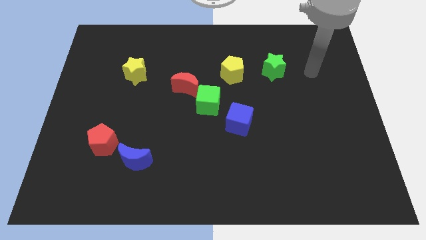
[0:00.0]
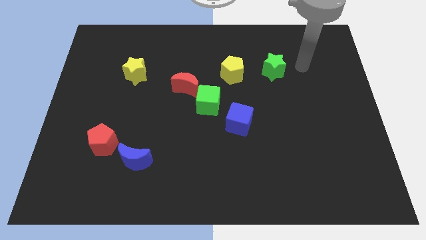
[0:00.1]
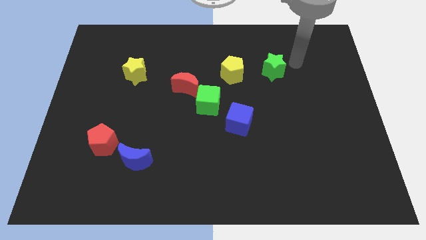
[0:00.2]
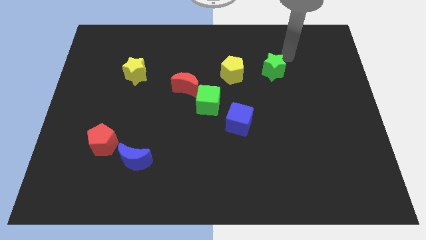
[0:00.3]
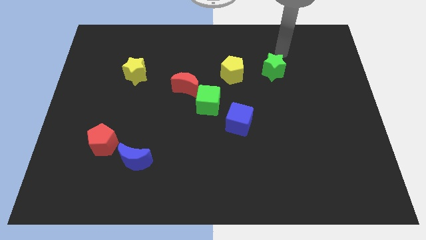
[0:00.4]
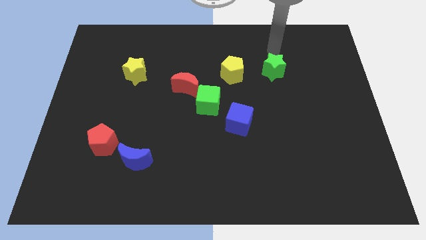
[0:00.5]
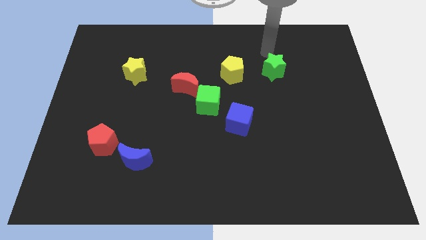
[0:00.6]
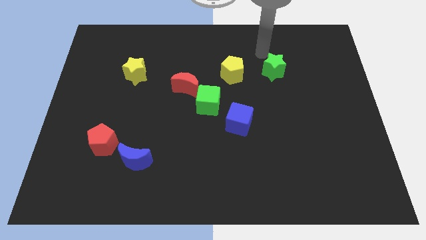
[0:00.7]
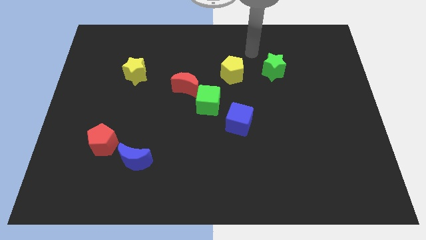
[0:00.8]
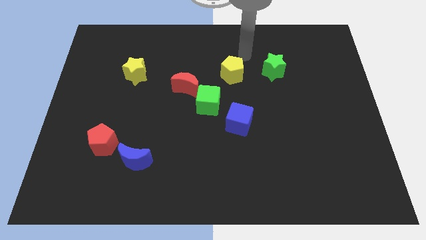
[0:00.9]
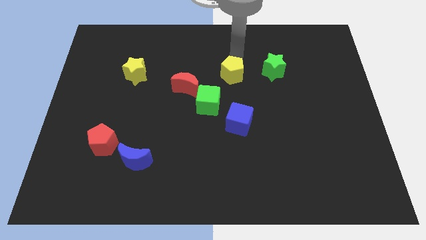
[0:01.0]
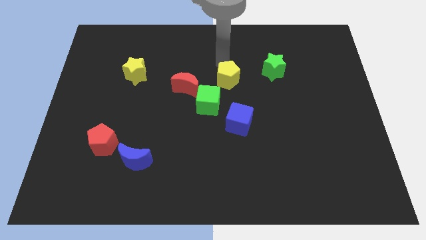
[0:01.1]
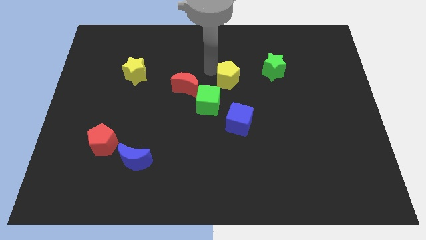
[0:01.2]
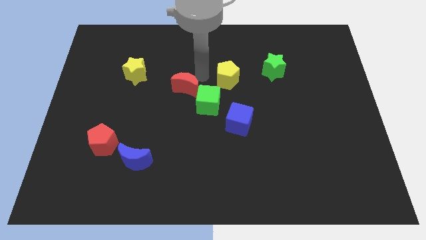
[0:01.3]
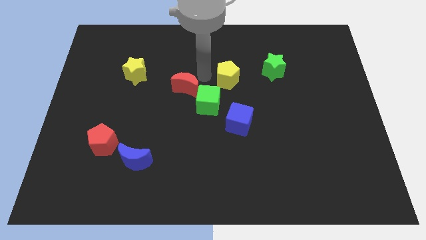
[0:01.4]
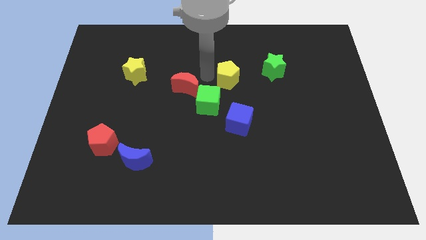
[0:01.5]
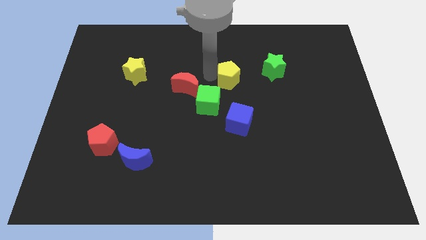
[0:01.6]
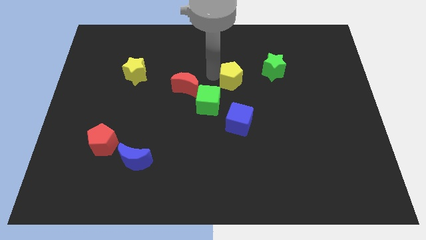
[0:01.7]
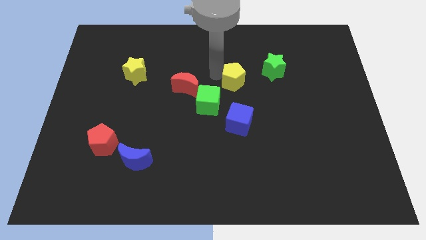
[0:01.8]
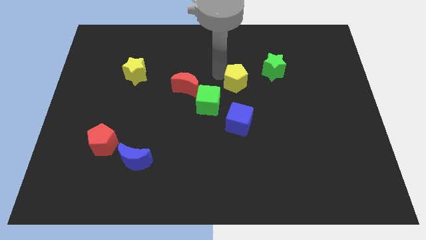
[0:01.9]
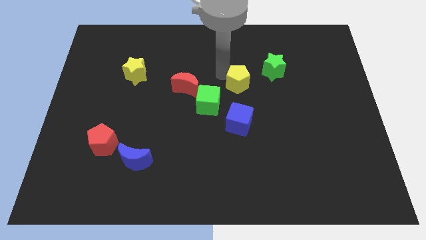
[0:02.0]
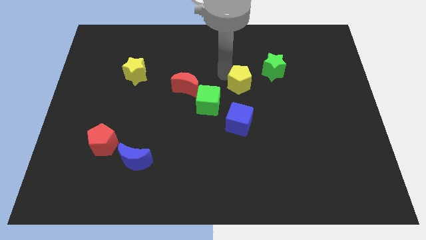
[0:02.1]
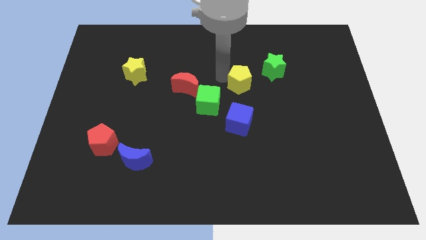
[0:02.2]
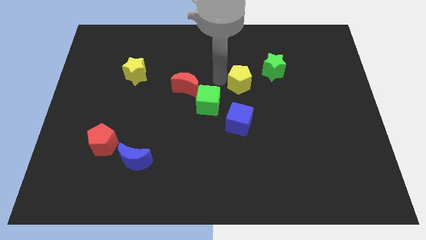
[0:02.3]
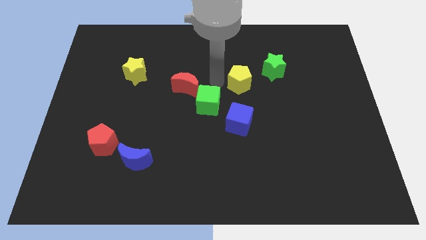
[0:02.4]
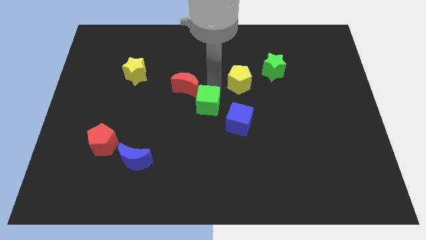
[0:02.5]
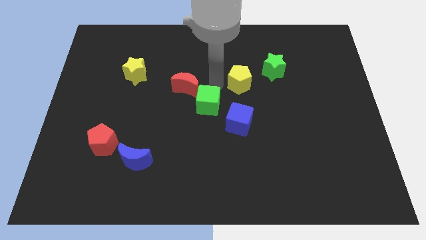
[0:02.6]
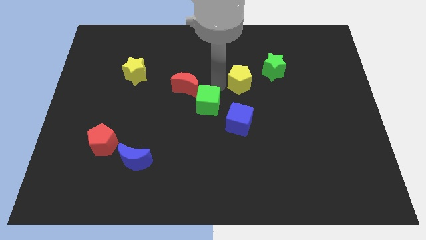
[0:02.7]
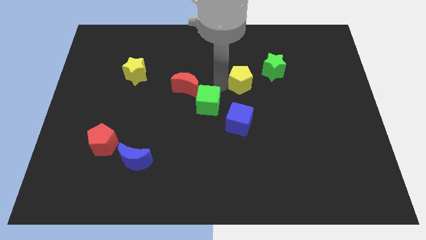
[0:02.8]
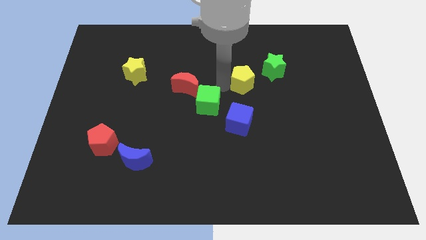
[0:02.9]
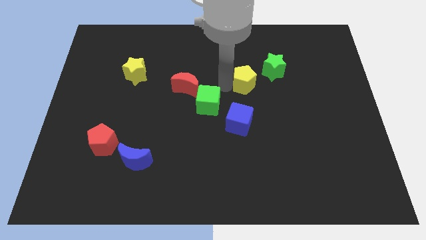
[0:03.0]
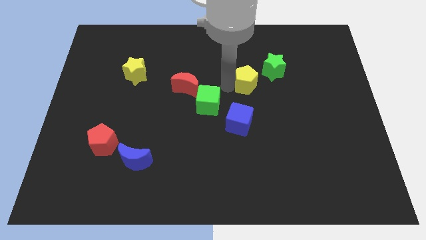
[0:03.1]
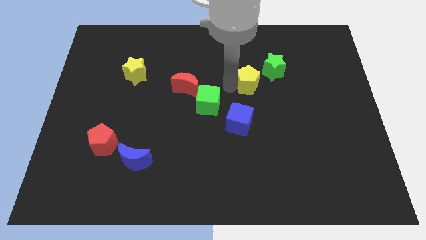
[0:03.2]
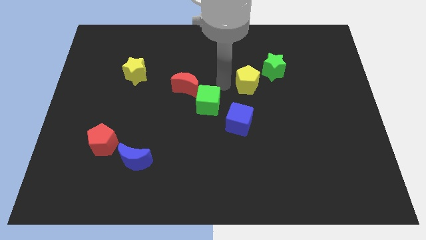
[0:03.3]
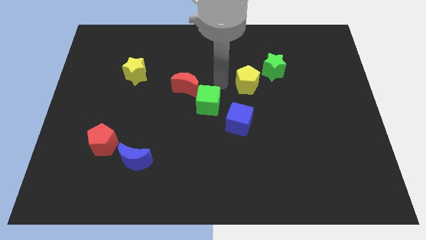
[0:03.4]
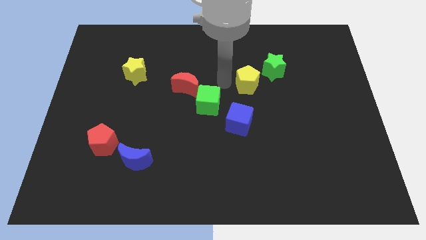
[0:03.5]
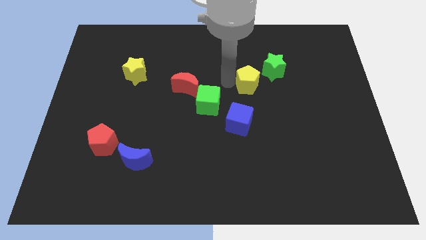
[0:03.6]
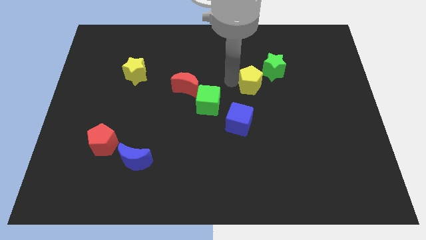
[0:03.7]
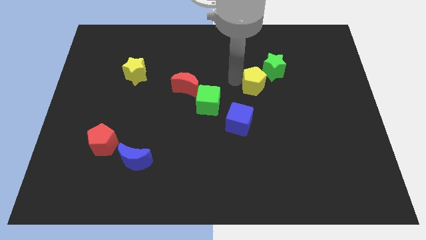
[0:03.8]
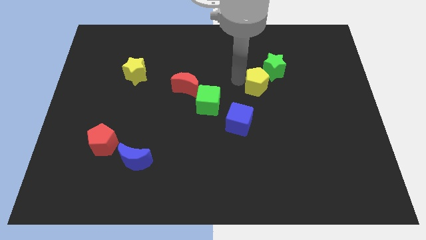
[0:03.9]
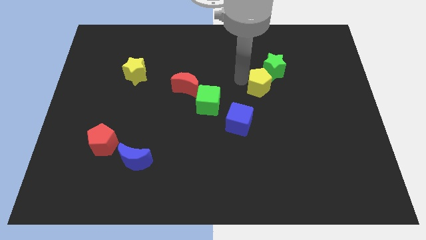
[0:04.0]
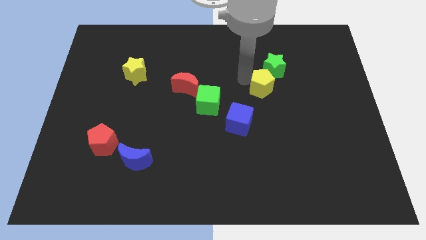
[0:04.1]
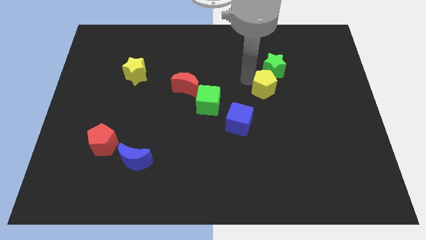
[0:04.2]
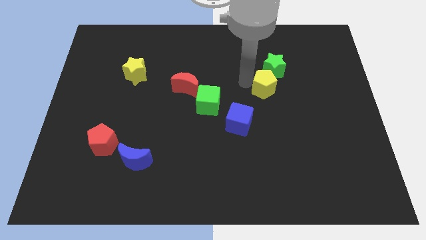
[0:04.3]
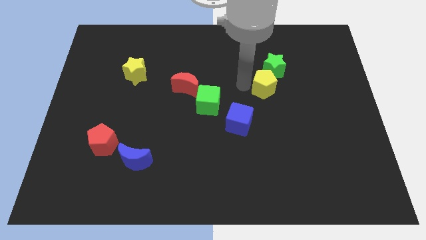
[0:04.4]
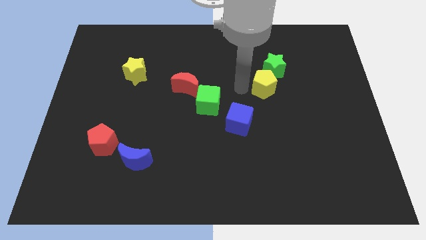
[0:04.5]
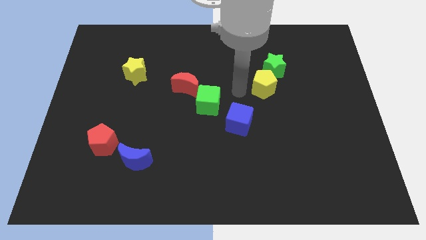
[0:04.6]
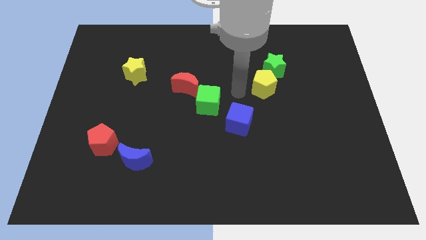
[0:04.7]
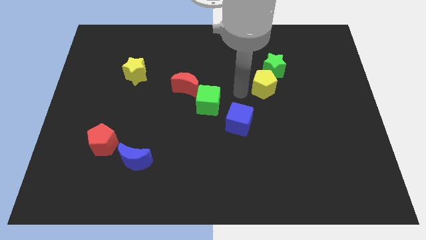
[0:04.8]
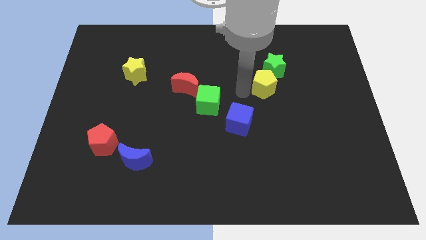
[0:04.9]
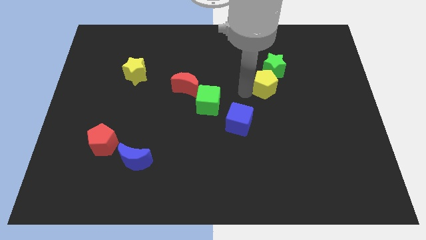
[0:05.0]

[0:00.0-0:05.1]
slightly move the yellow pentagon to the right

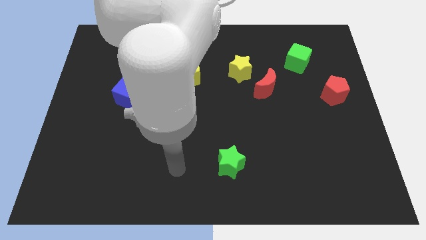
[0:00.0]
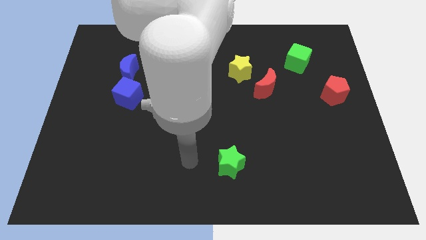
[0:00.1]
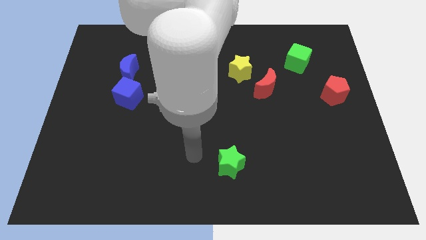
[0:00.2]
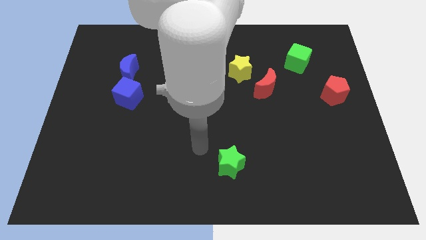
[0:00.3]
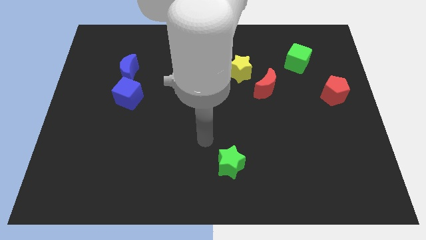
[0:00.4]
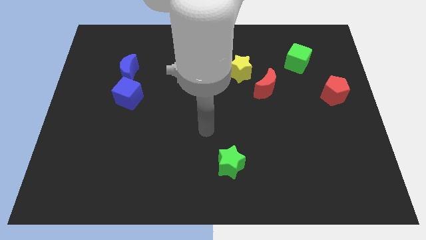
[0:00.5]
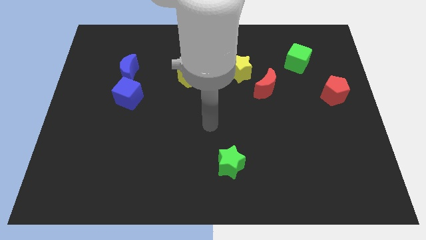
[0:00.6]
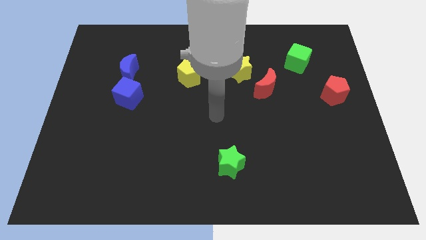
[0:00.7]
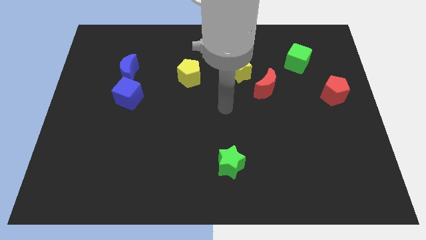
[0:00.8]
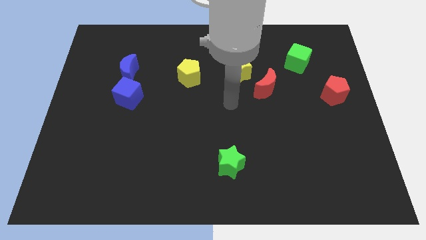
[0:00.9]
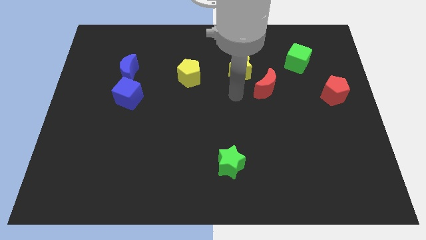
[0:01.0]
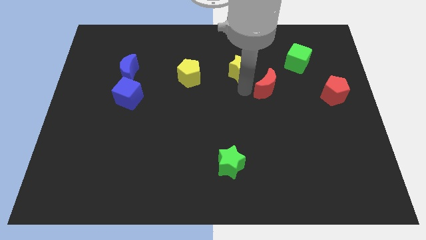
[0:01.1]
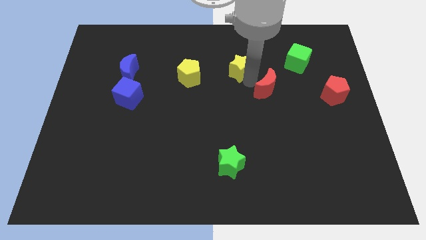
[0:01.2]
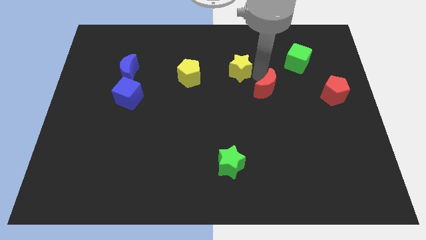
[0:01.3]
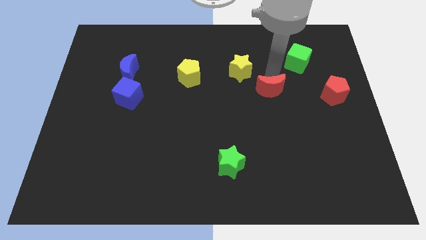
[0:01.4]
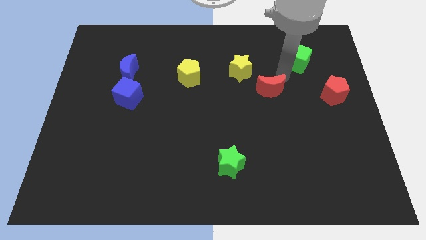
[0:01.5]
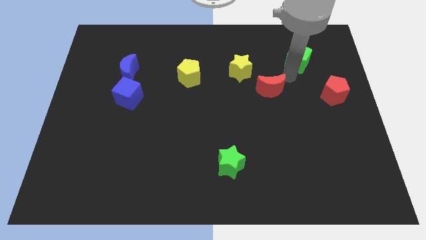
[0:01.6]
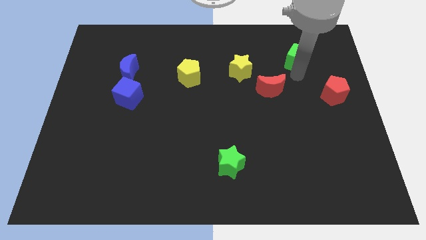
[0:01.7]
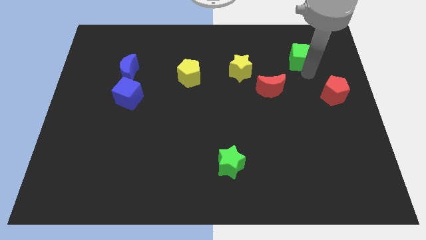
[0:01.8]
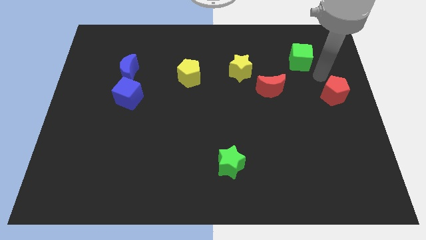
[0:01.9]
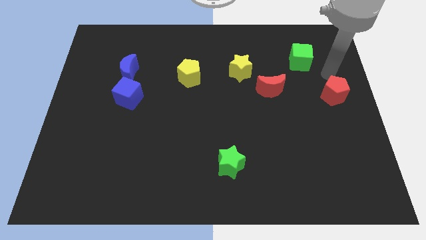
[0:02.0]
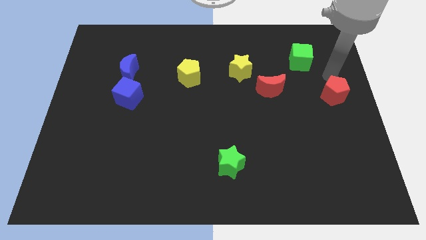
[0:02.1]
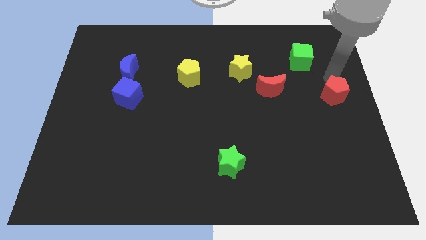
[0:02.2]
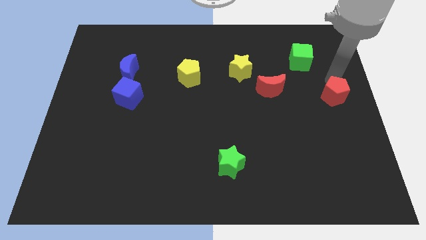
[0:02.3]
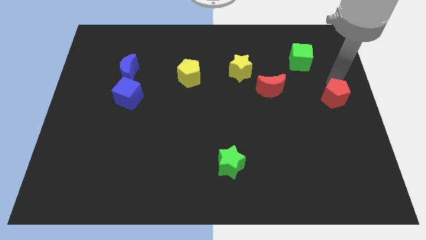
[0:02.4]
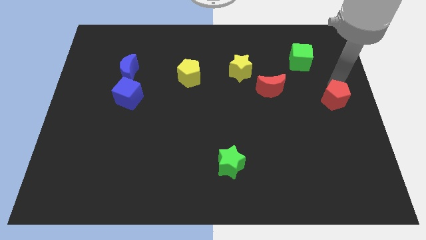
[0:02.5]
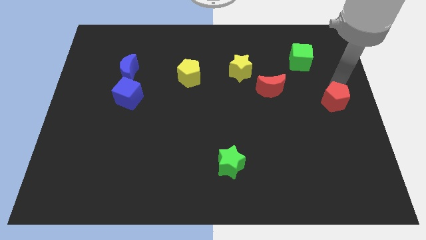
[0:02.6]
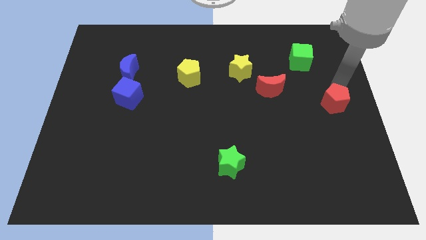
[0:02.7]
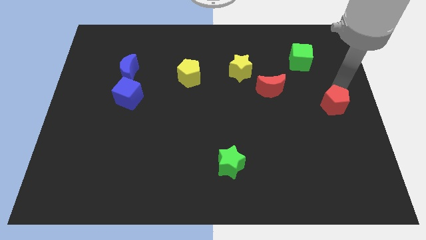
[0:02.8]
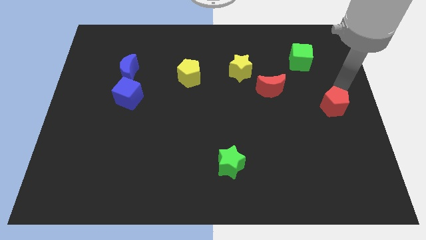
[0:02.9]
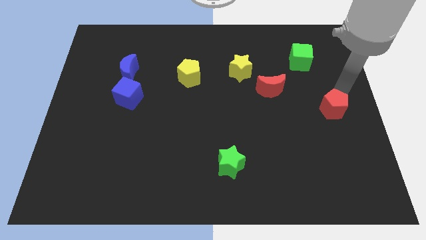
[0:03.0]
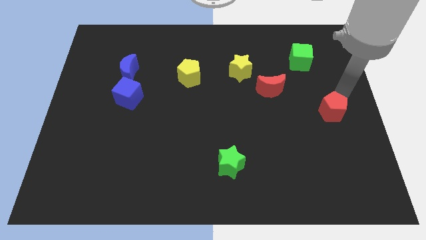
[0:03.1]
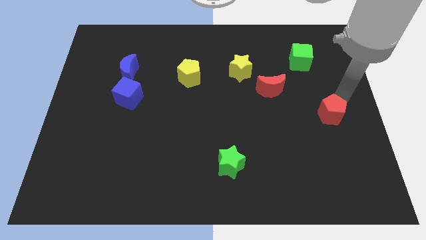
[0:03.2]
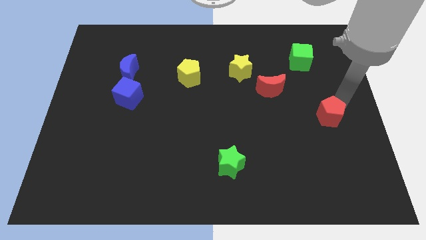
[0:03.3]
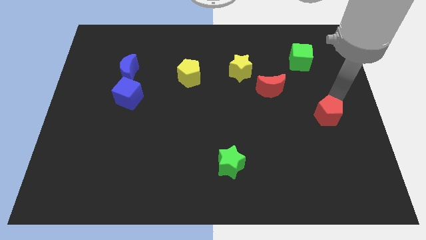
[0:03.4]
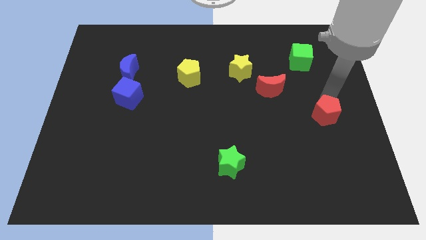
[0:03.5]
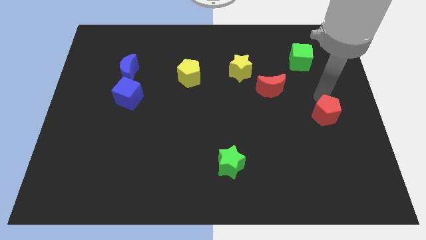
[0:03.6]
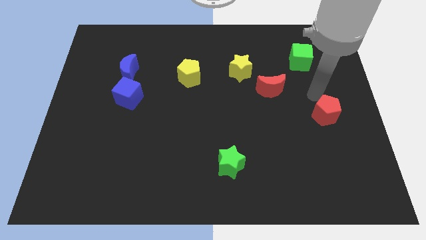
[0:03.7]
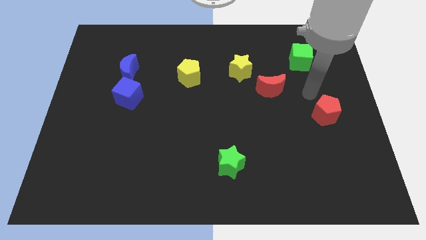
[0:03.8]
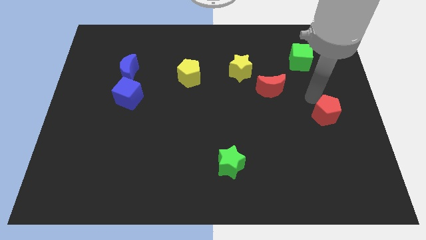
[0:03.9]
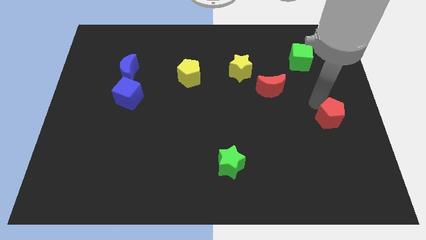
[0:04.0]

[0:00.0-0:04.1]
slide the red pentagon a little down
